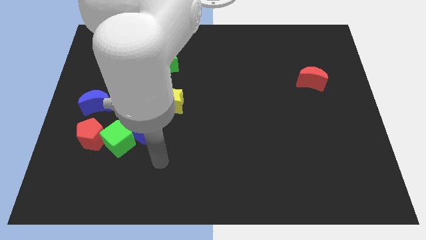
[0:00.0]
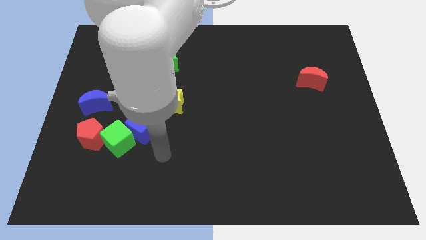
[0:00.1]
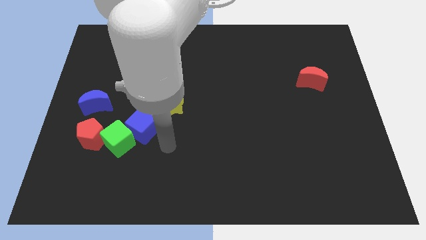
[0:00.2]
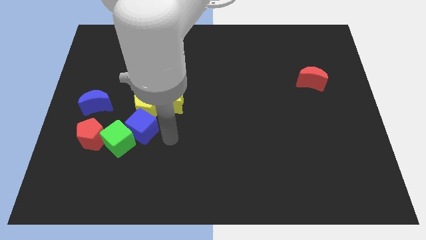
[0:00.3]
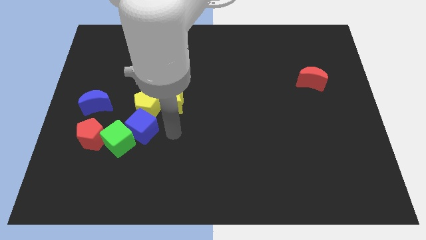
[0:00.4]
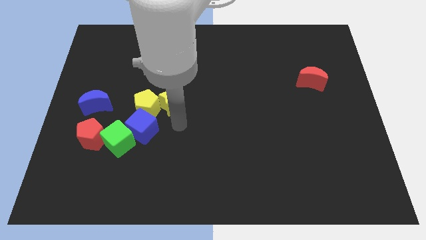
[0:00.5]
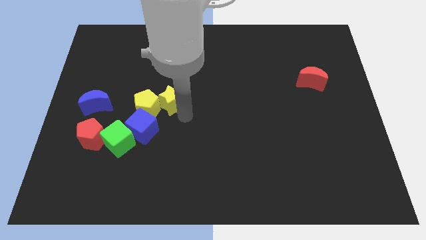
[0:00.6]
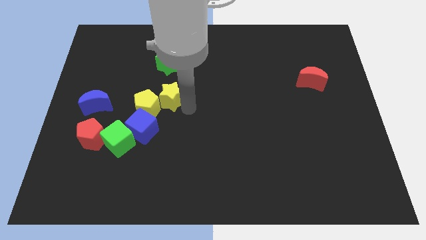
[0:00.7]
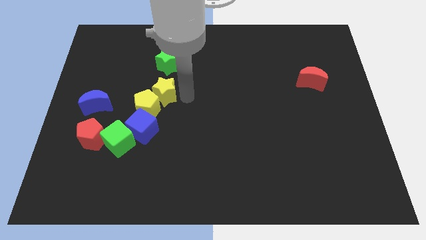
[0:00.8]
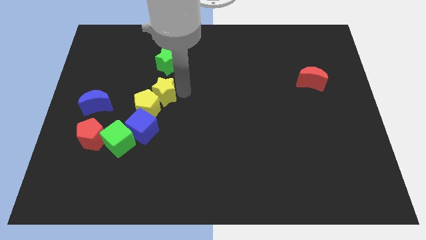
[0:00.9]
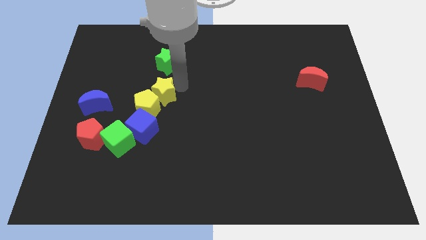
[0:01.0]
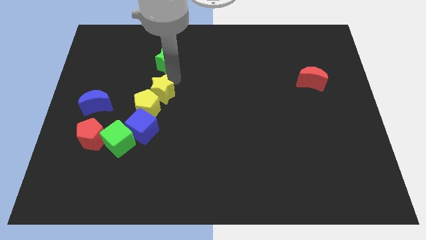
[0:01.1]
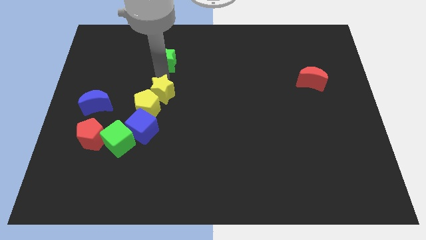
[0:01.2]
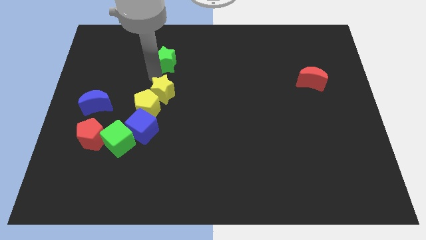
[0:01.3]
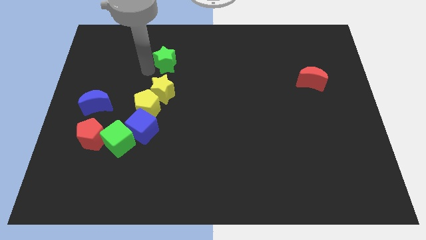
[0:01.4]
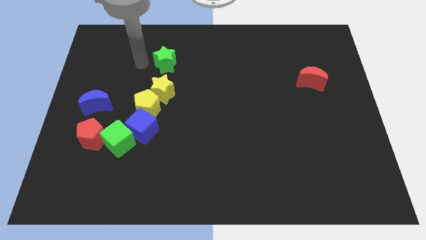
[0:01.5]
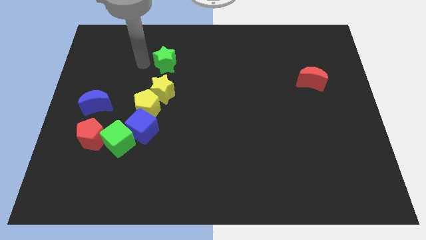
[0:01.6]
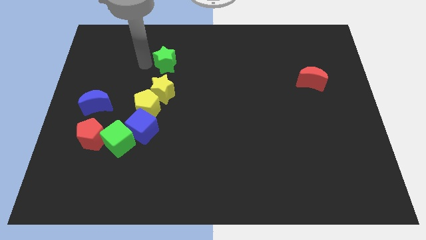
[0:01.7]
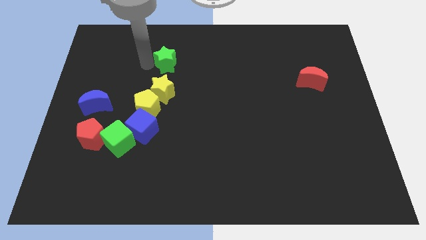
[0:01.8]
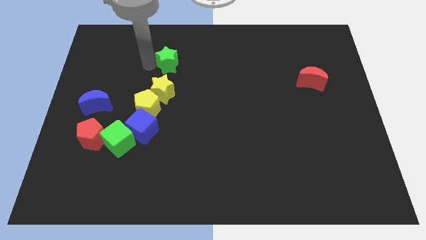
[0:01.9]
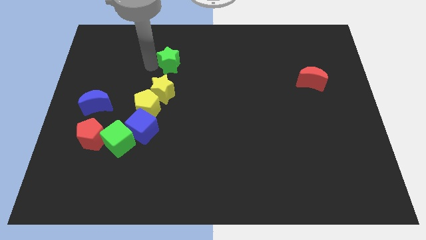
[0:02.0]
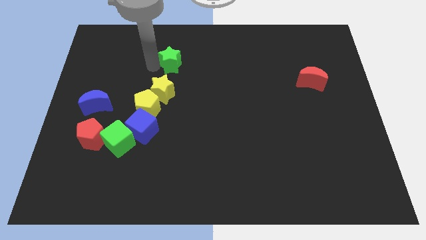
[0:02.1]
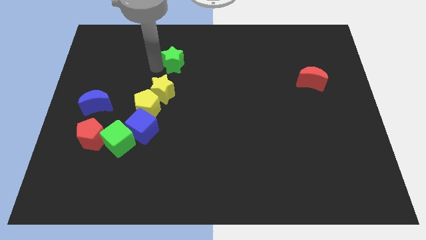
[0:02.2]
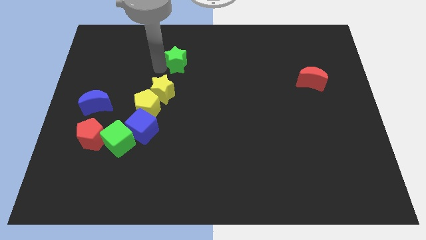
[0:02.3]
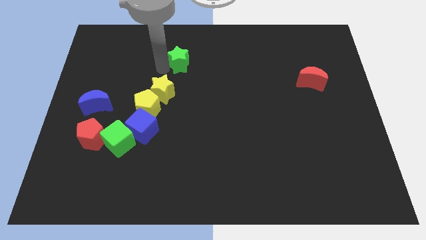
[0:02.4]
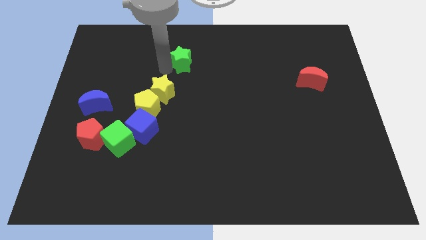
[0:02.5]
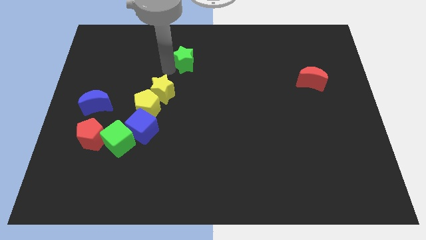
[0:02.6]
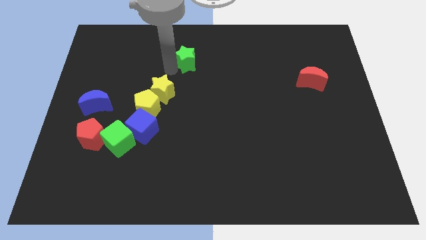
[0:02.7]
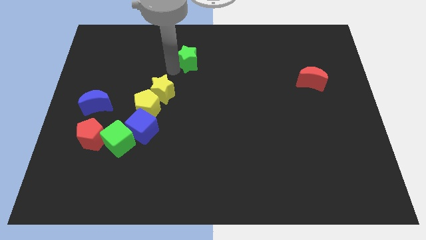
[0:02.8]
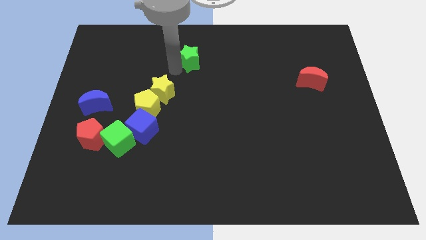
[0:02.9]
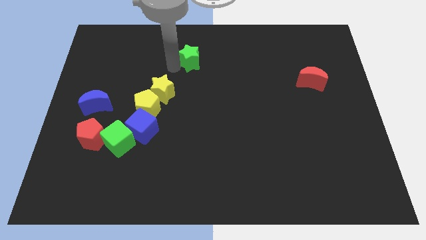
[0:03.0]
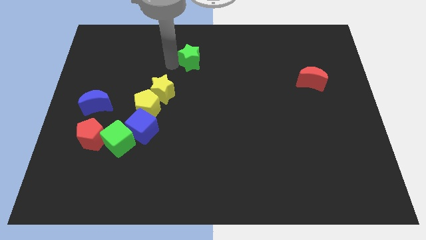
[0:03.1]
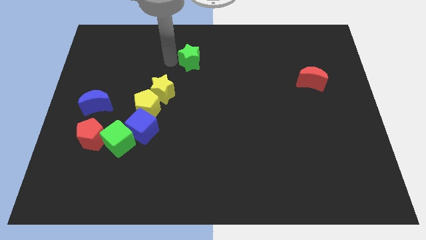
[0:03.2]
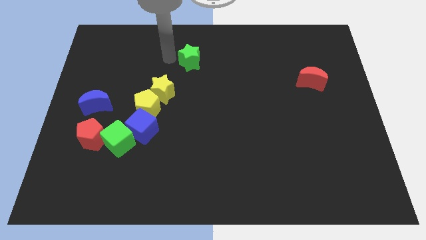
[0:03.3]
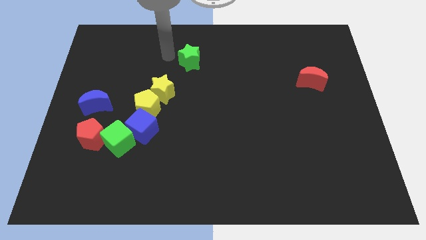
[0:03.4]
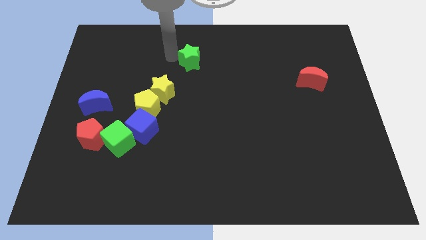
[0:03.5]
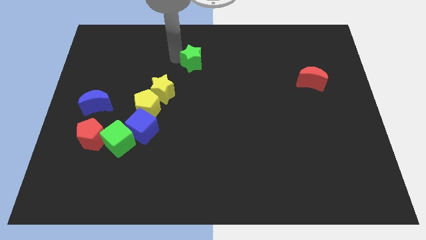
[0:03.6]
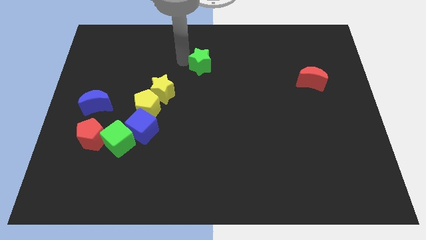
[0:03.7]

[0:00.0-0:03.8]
move the green star to the right a little

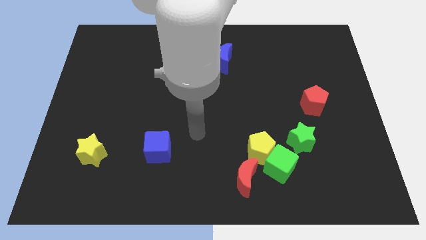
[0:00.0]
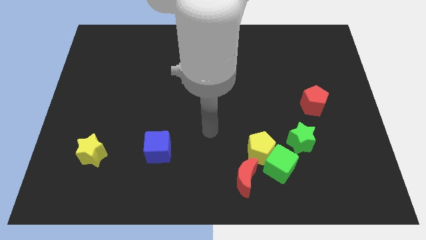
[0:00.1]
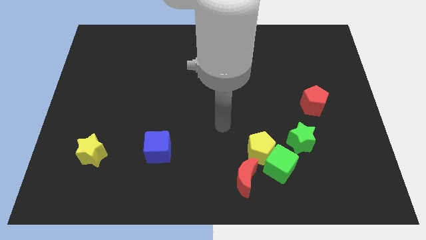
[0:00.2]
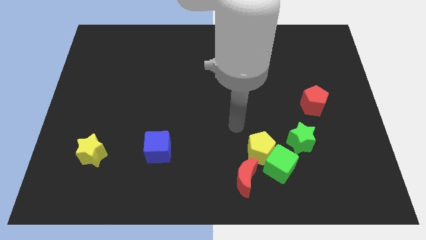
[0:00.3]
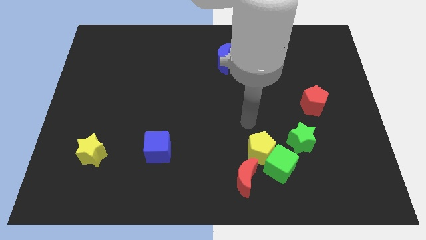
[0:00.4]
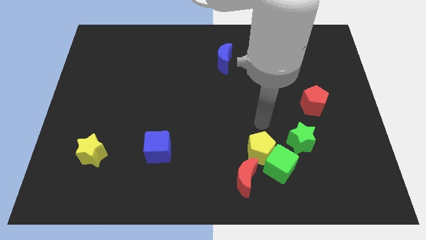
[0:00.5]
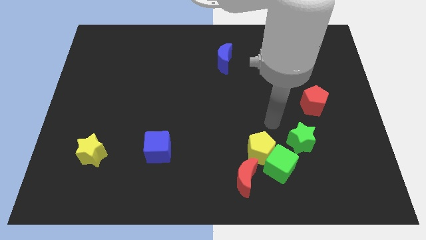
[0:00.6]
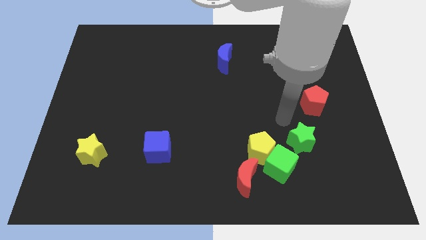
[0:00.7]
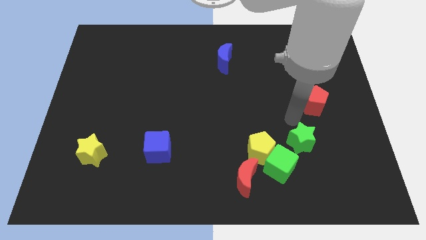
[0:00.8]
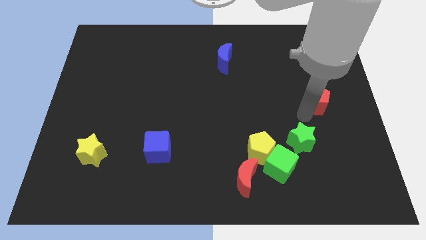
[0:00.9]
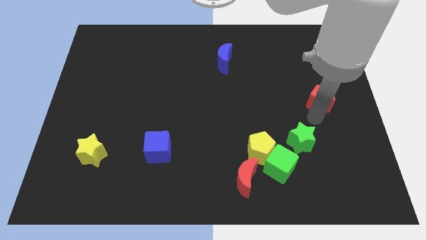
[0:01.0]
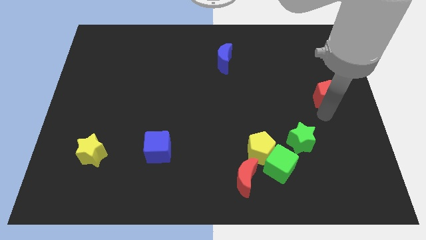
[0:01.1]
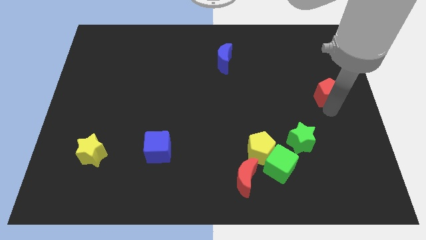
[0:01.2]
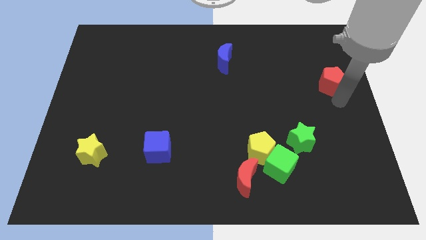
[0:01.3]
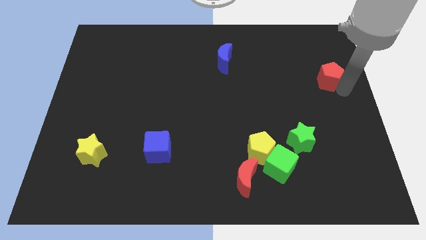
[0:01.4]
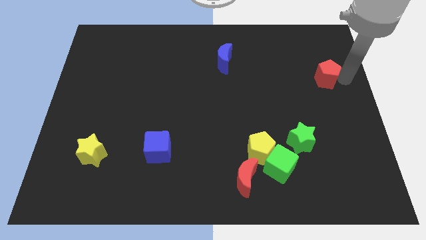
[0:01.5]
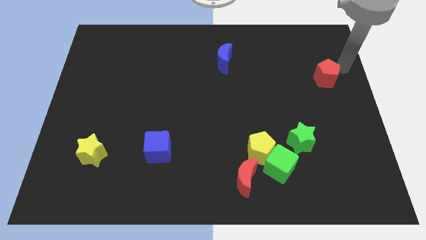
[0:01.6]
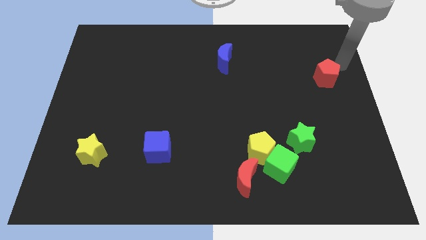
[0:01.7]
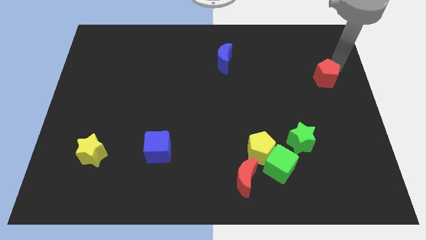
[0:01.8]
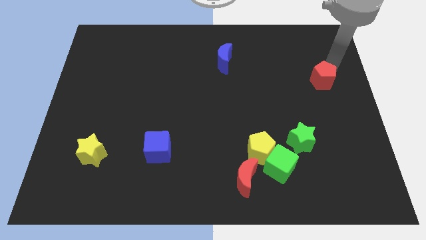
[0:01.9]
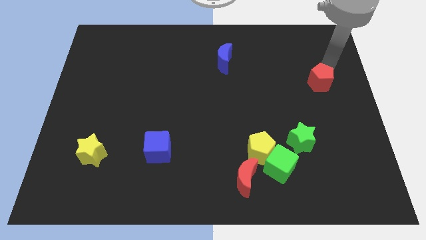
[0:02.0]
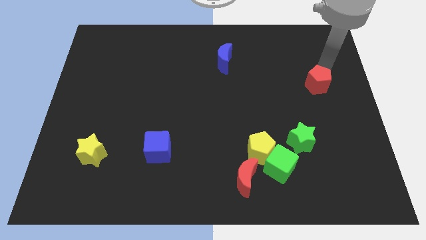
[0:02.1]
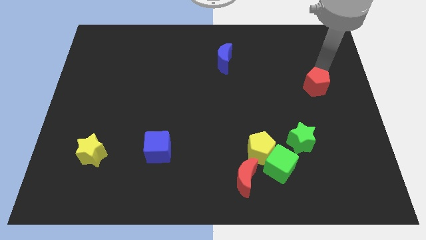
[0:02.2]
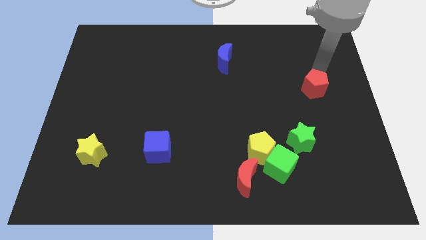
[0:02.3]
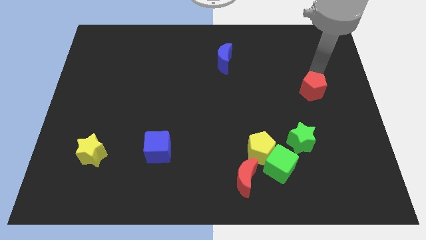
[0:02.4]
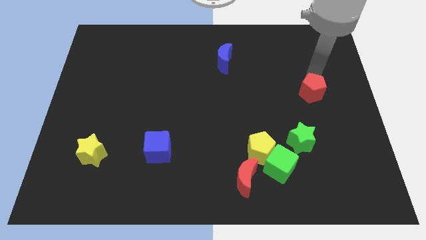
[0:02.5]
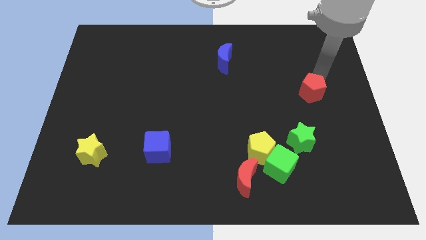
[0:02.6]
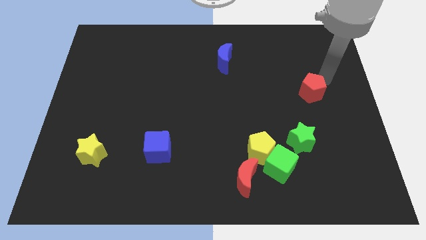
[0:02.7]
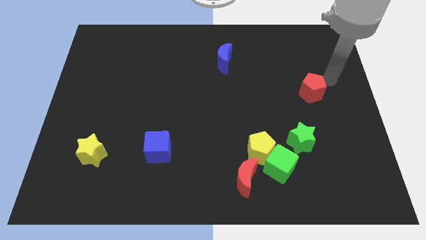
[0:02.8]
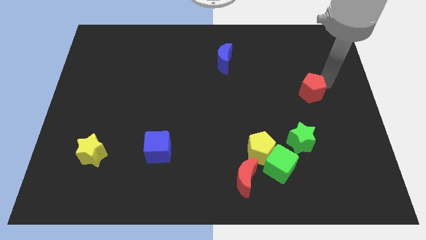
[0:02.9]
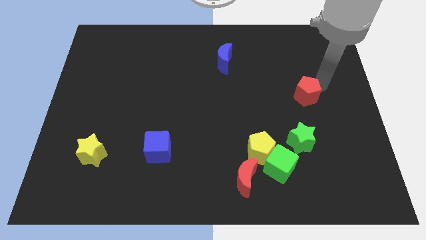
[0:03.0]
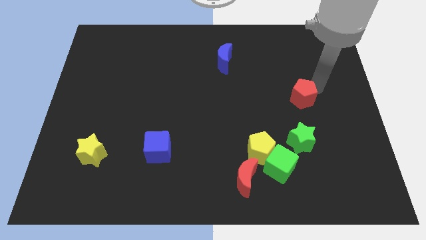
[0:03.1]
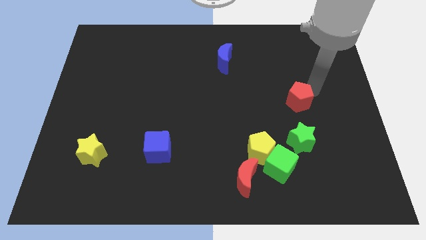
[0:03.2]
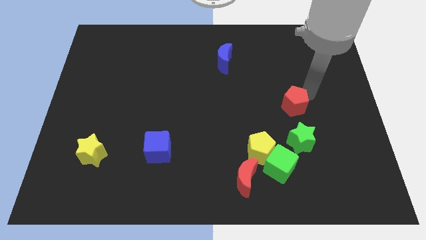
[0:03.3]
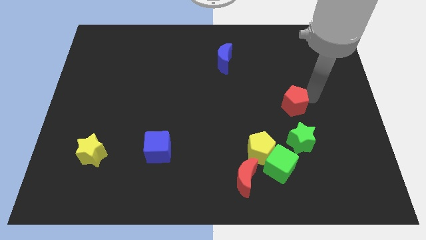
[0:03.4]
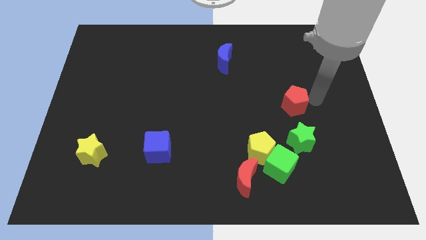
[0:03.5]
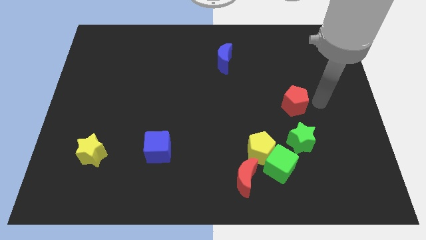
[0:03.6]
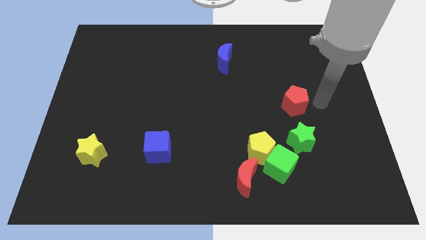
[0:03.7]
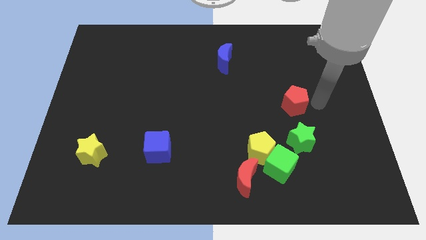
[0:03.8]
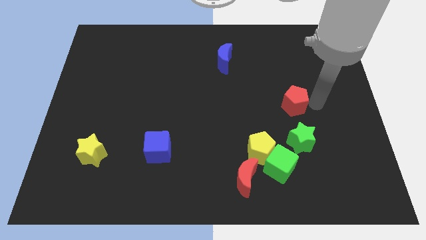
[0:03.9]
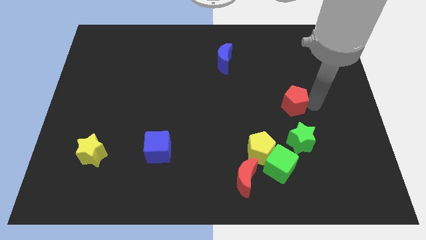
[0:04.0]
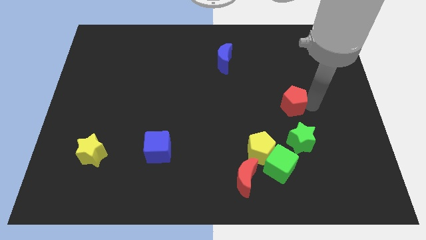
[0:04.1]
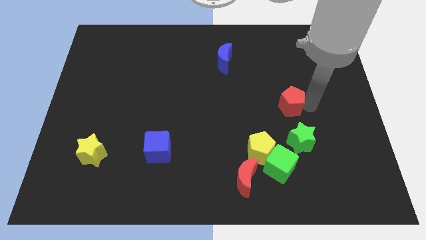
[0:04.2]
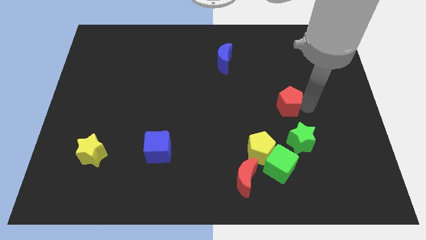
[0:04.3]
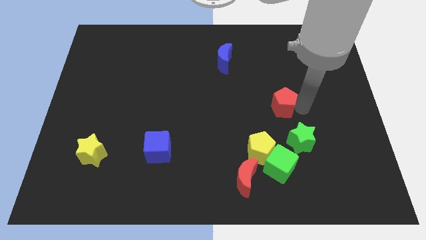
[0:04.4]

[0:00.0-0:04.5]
slightly slide the red pentagon left
